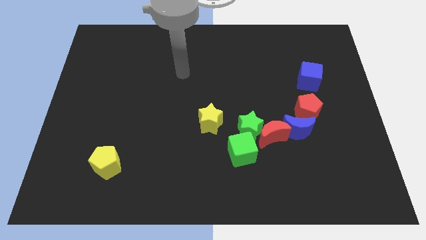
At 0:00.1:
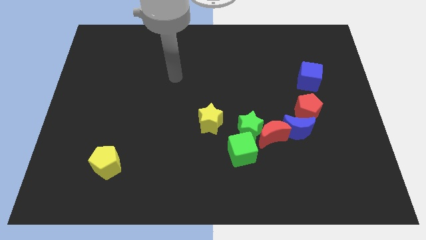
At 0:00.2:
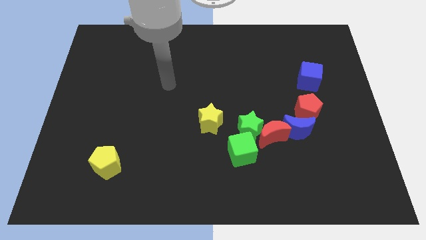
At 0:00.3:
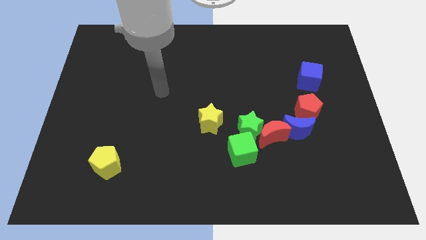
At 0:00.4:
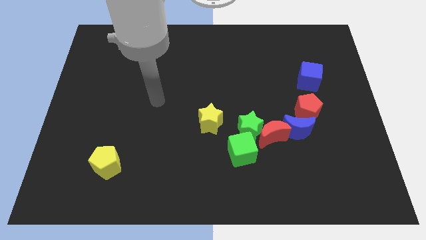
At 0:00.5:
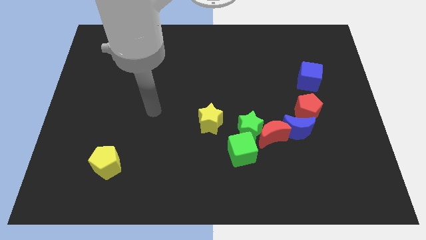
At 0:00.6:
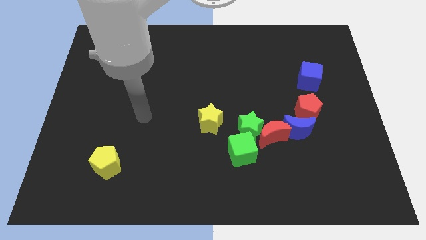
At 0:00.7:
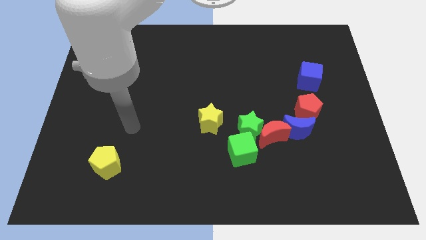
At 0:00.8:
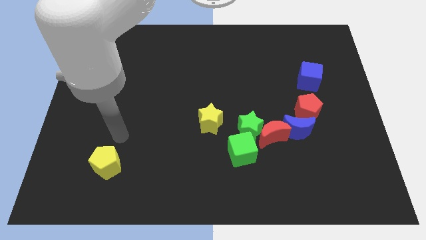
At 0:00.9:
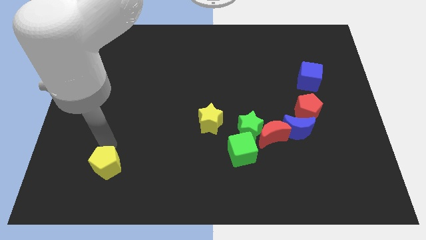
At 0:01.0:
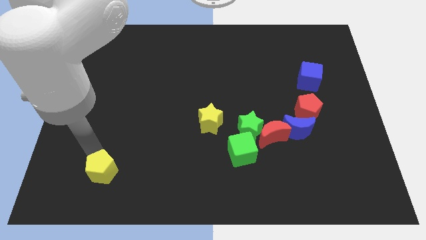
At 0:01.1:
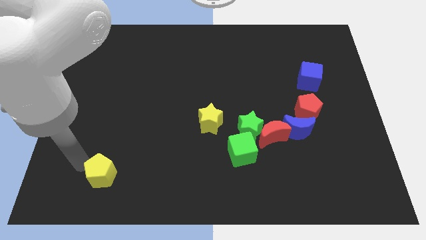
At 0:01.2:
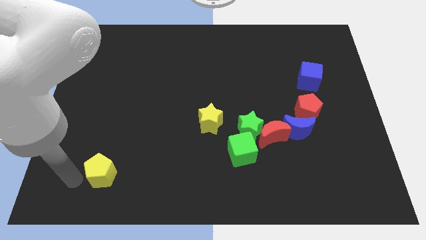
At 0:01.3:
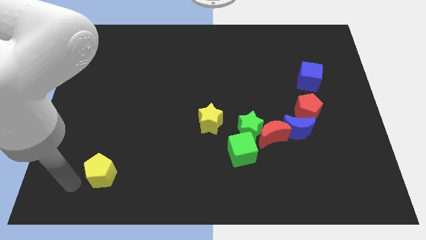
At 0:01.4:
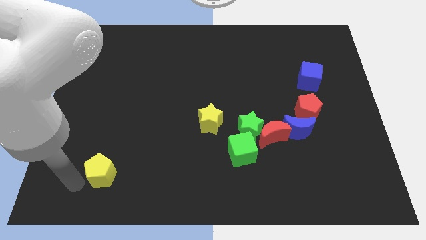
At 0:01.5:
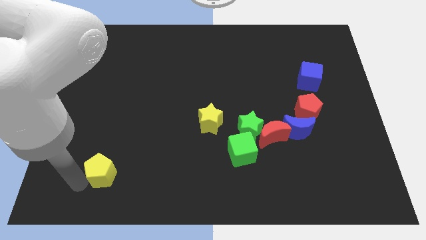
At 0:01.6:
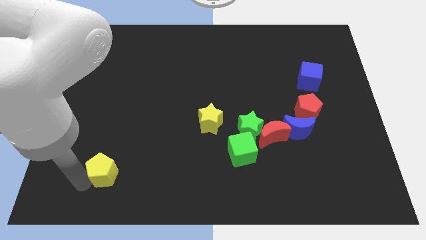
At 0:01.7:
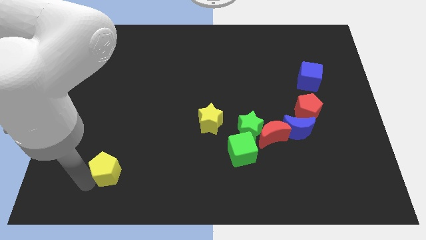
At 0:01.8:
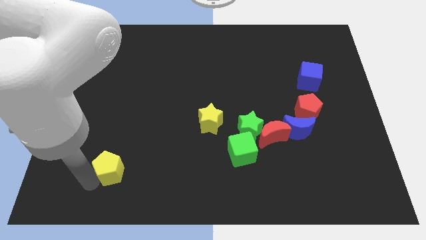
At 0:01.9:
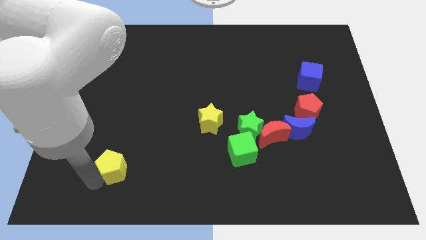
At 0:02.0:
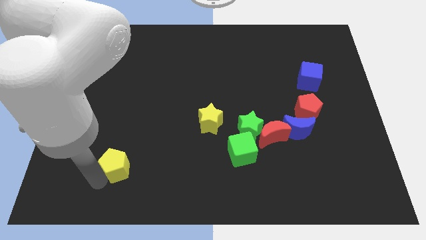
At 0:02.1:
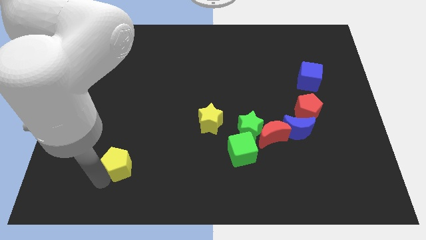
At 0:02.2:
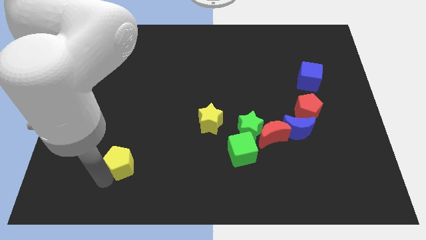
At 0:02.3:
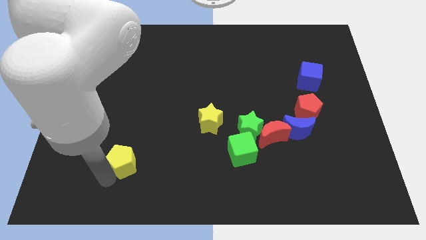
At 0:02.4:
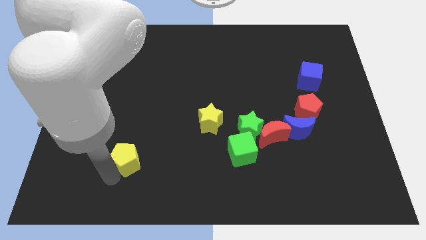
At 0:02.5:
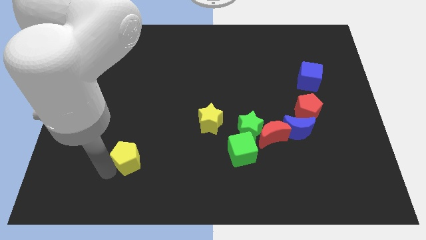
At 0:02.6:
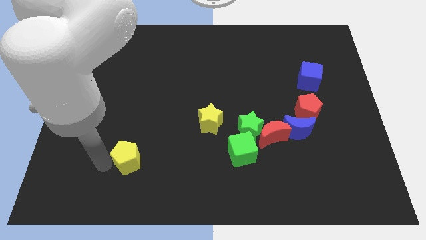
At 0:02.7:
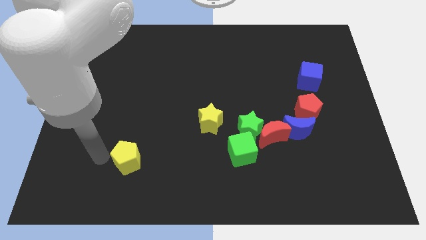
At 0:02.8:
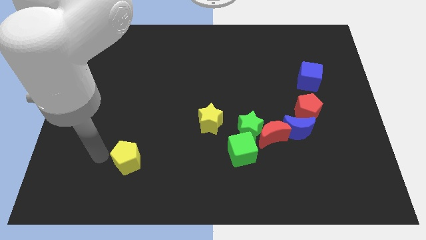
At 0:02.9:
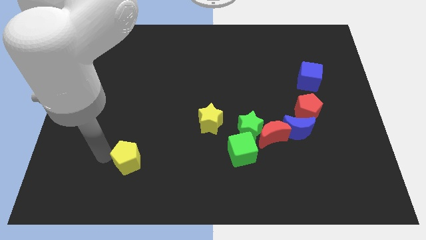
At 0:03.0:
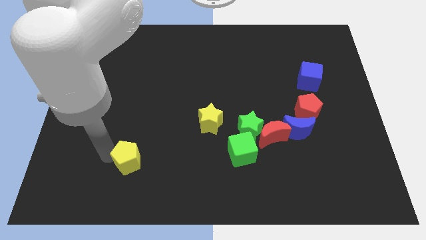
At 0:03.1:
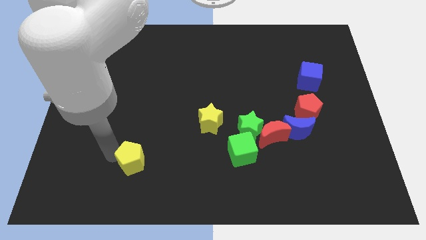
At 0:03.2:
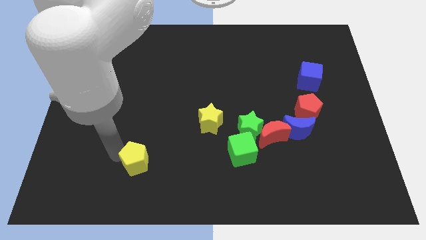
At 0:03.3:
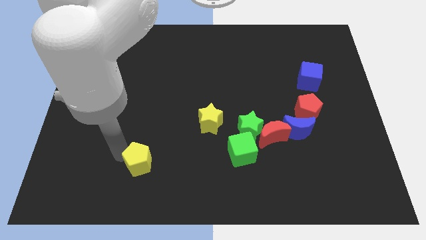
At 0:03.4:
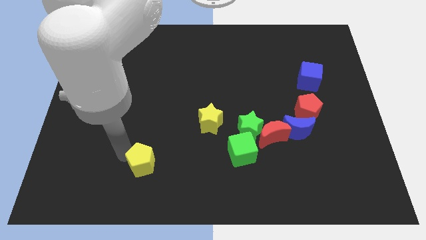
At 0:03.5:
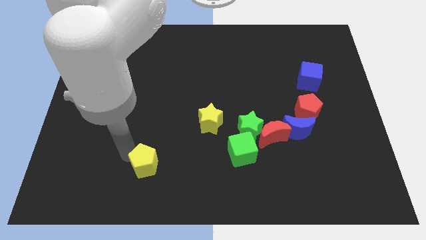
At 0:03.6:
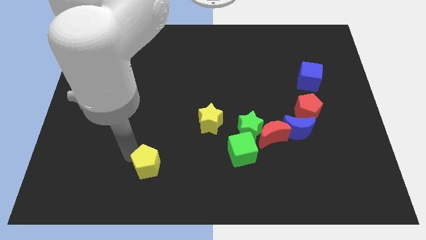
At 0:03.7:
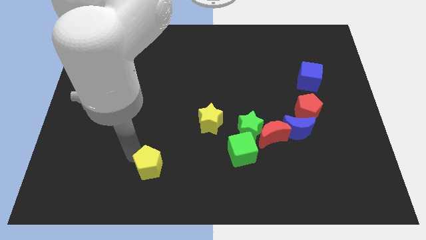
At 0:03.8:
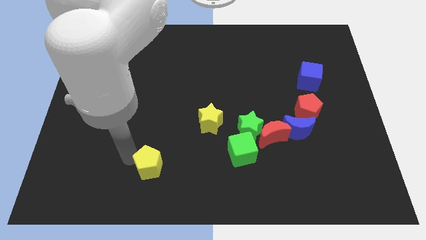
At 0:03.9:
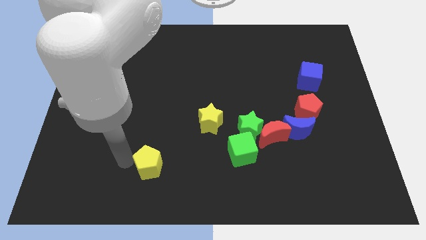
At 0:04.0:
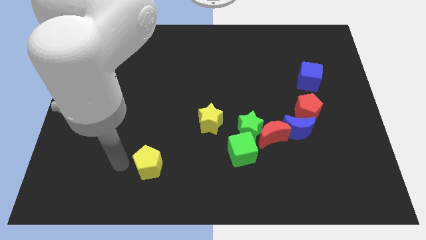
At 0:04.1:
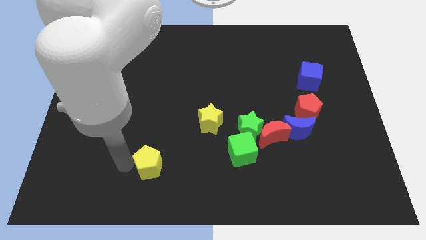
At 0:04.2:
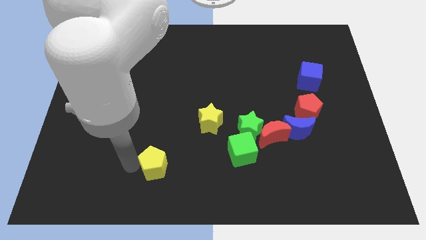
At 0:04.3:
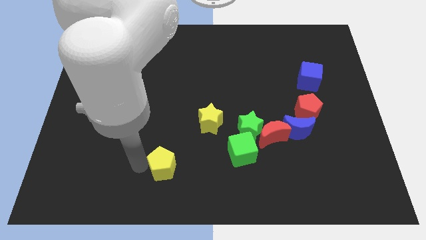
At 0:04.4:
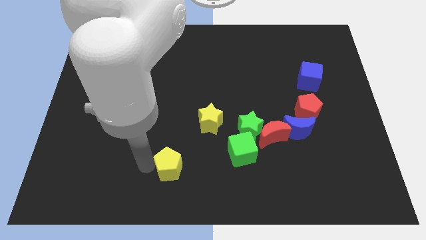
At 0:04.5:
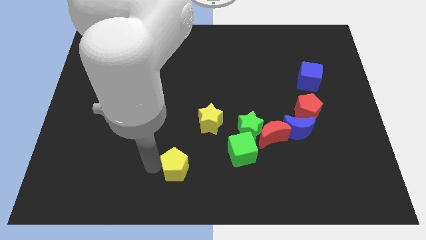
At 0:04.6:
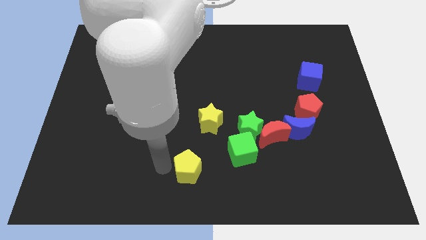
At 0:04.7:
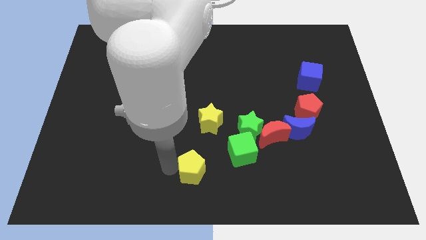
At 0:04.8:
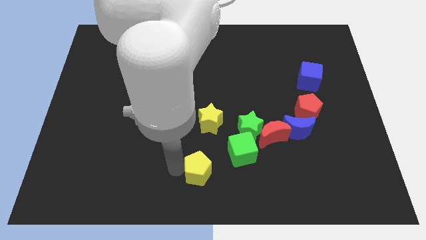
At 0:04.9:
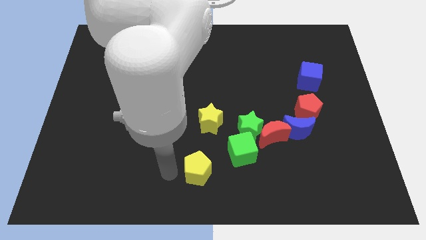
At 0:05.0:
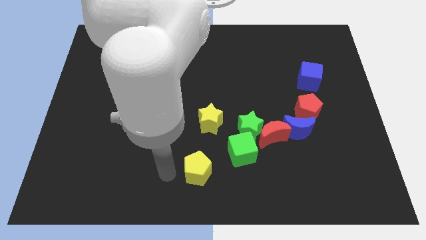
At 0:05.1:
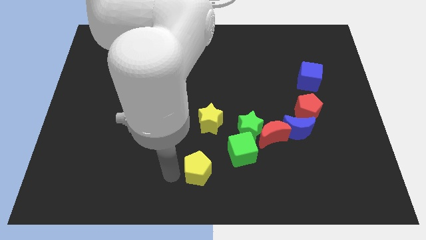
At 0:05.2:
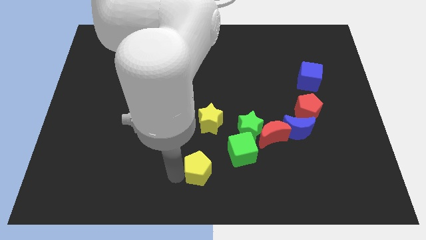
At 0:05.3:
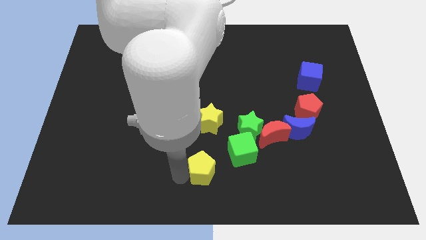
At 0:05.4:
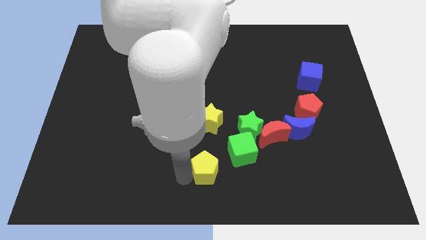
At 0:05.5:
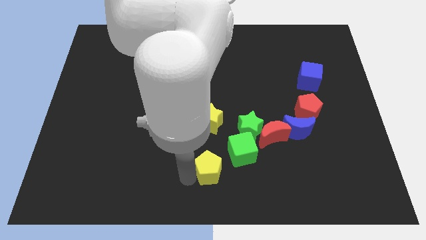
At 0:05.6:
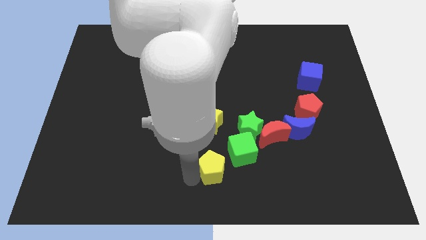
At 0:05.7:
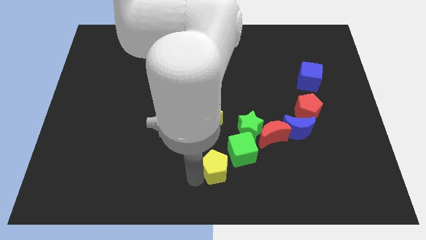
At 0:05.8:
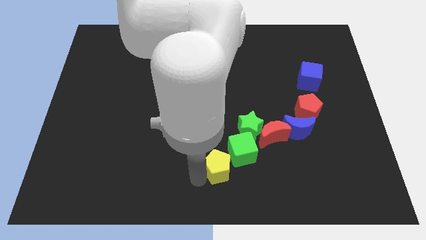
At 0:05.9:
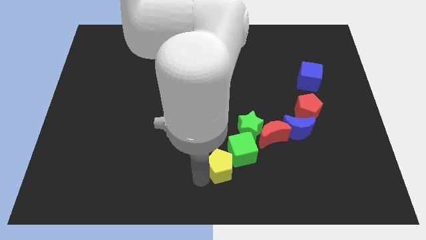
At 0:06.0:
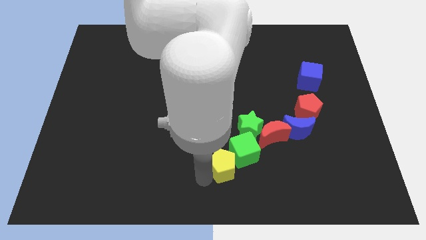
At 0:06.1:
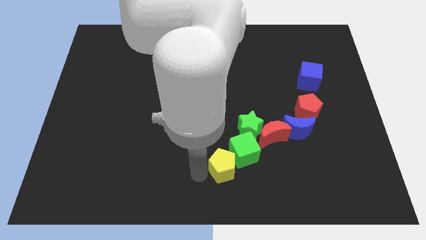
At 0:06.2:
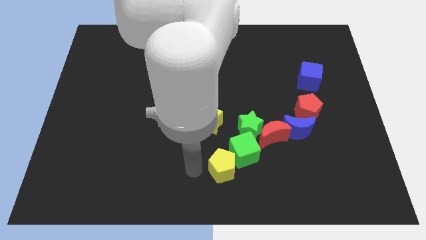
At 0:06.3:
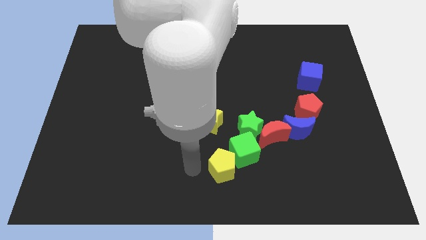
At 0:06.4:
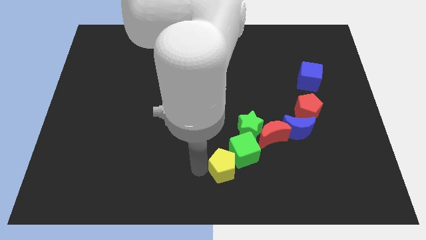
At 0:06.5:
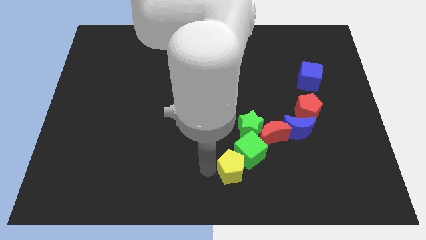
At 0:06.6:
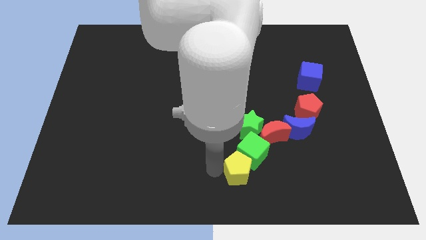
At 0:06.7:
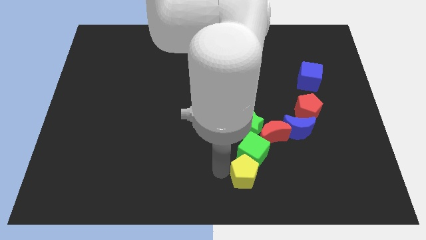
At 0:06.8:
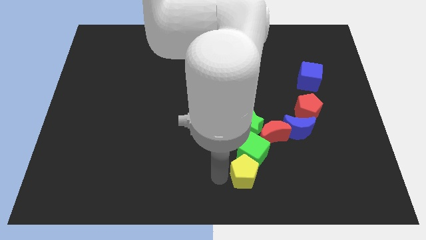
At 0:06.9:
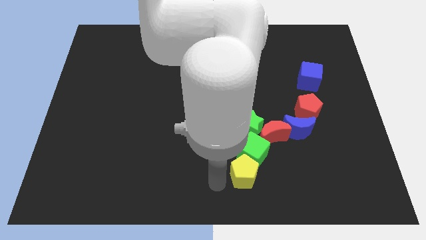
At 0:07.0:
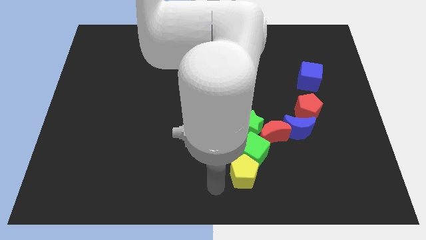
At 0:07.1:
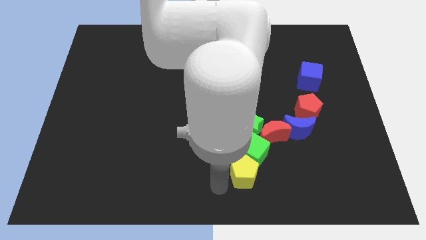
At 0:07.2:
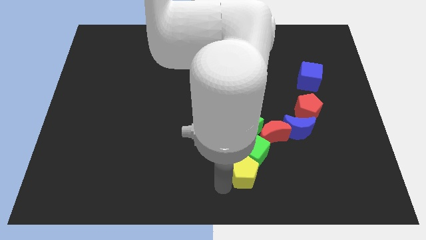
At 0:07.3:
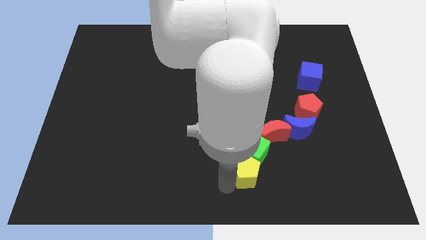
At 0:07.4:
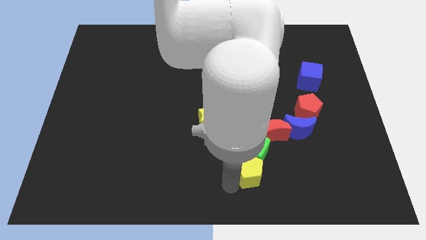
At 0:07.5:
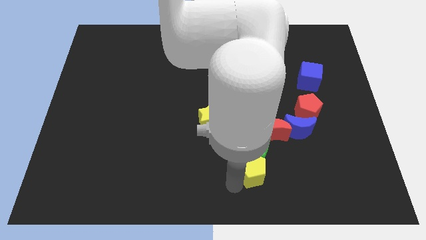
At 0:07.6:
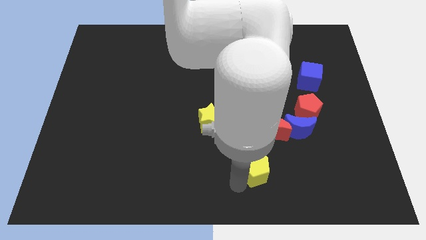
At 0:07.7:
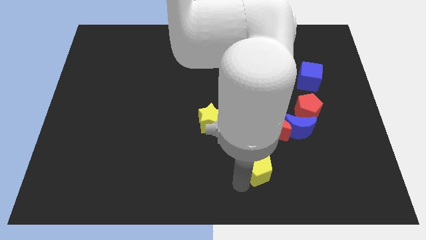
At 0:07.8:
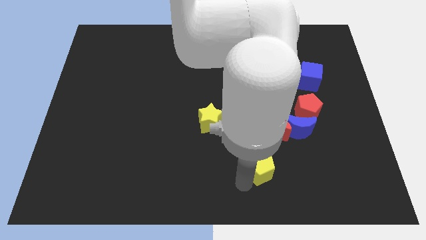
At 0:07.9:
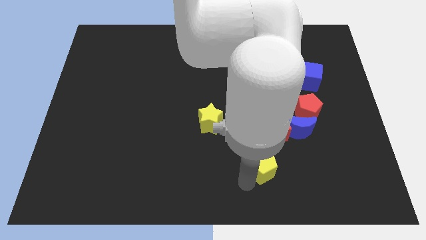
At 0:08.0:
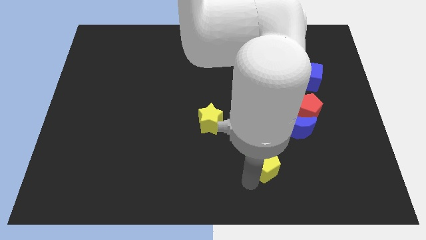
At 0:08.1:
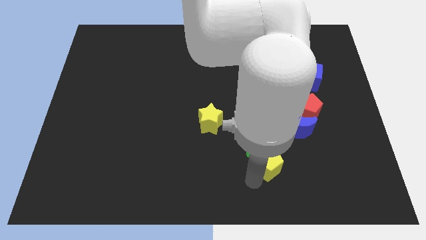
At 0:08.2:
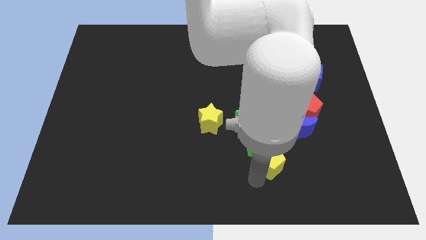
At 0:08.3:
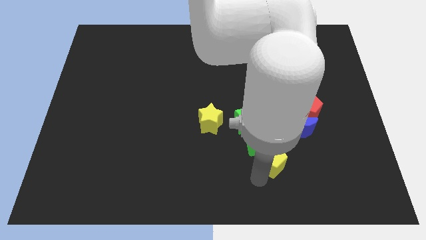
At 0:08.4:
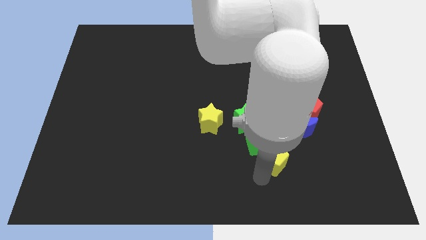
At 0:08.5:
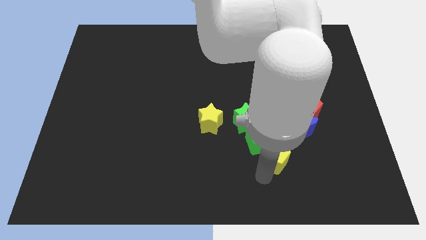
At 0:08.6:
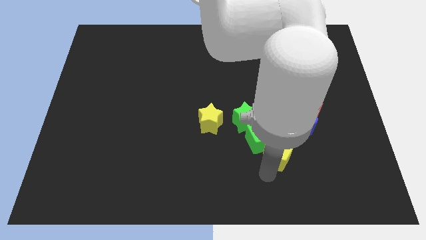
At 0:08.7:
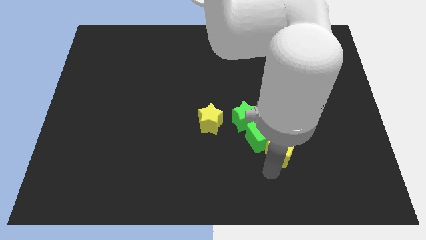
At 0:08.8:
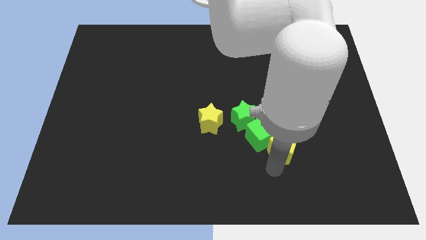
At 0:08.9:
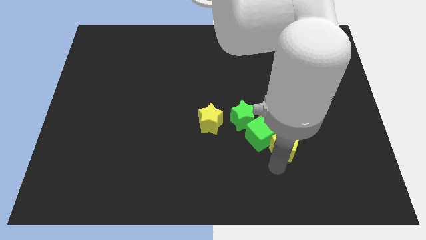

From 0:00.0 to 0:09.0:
move the yellow pentagon to the blue moon
